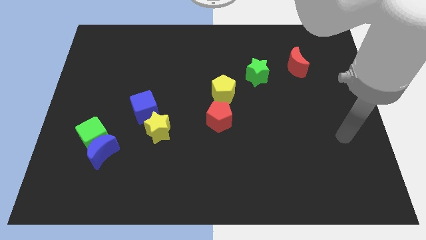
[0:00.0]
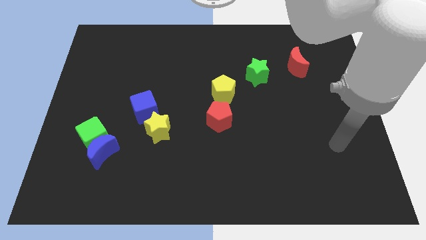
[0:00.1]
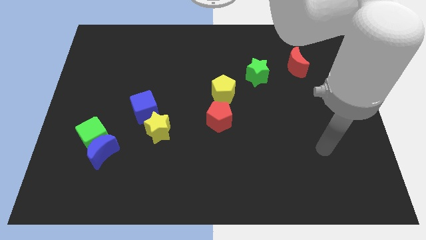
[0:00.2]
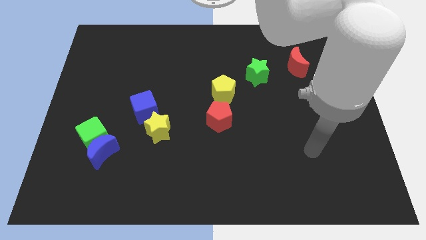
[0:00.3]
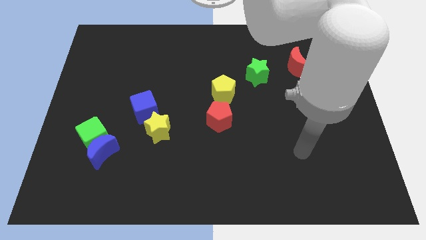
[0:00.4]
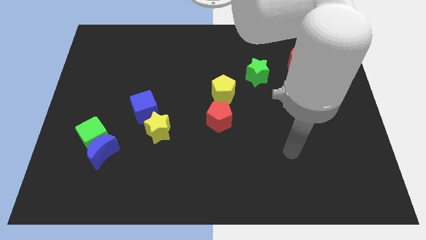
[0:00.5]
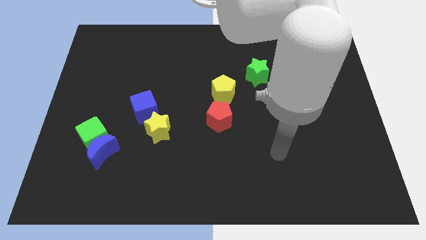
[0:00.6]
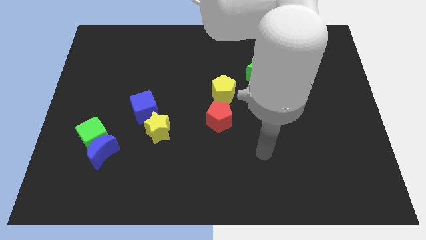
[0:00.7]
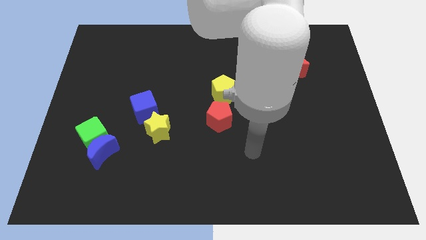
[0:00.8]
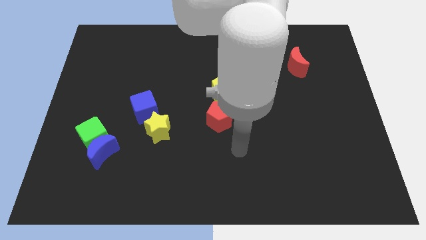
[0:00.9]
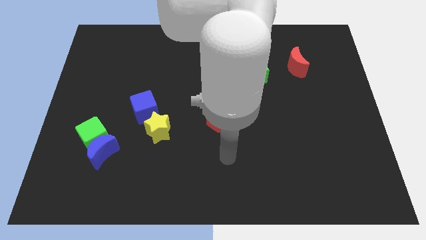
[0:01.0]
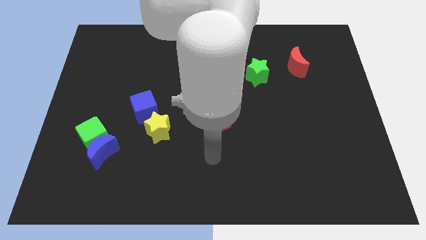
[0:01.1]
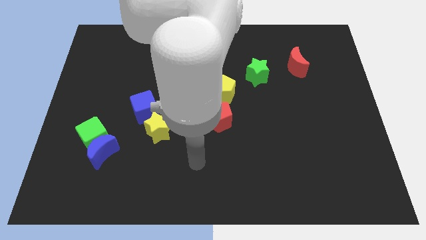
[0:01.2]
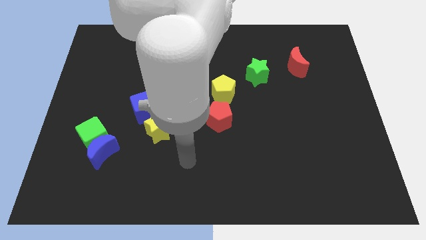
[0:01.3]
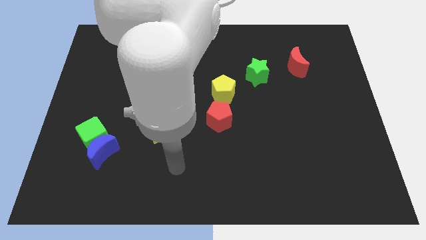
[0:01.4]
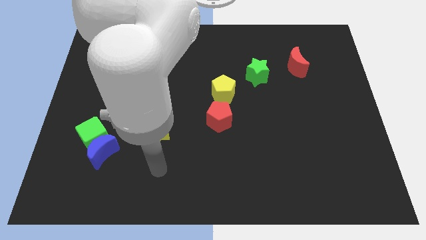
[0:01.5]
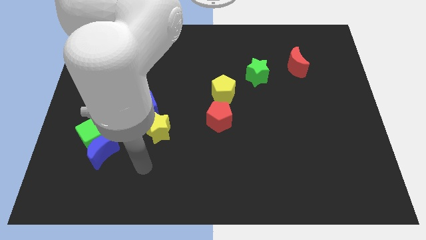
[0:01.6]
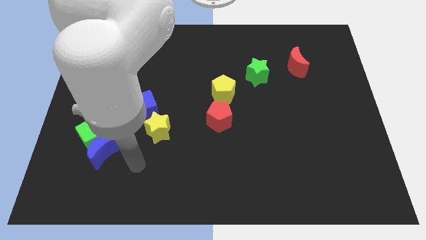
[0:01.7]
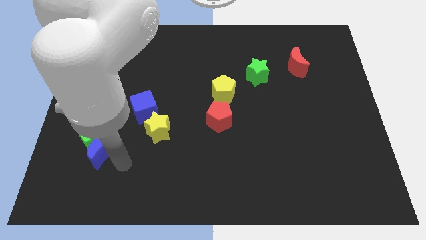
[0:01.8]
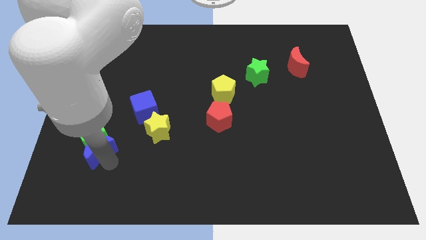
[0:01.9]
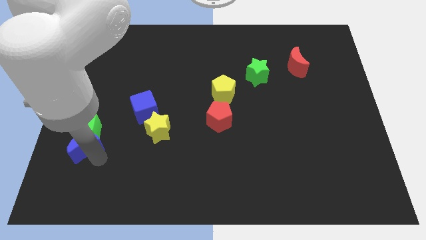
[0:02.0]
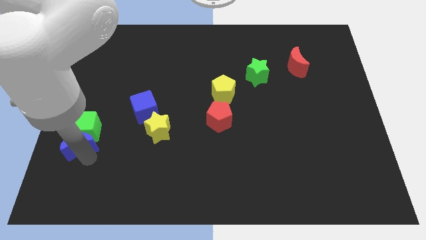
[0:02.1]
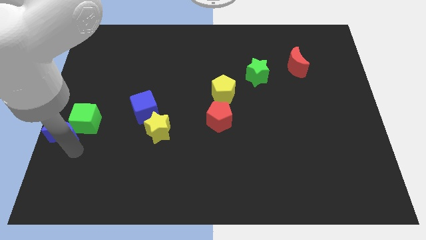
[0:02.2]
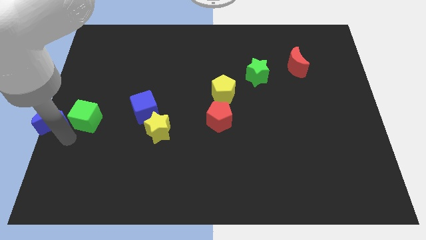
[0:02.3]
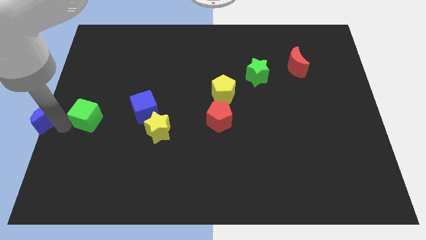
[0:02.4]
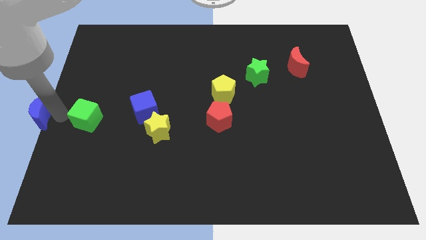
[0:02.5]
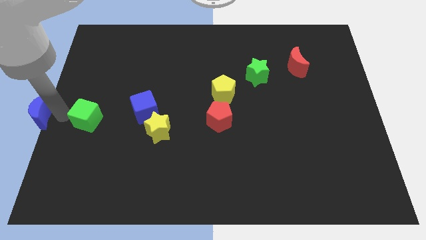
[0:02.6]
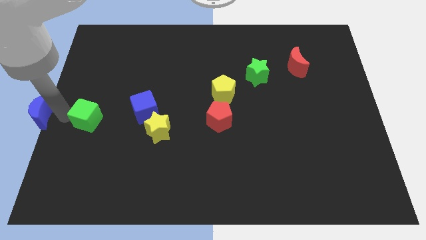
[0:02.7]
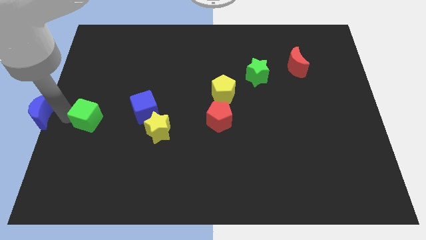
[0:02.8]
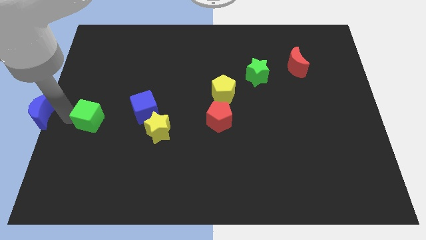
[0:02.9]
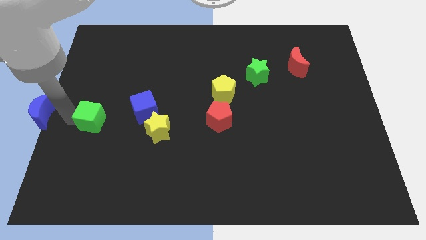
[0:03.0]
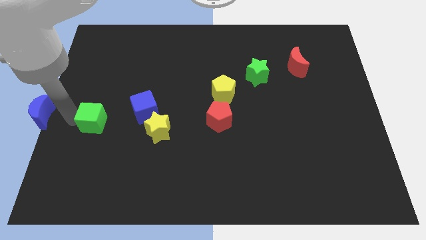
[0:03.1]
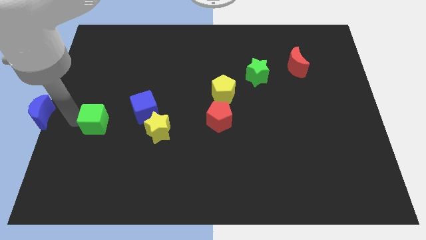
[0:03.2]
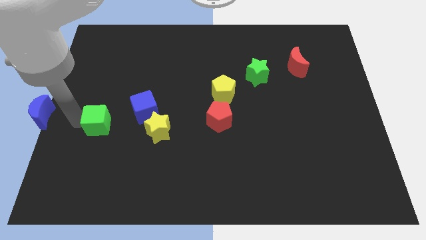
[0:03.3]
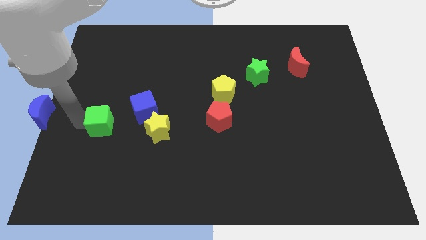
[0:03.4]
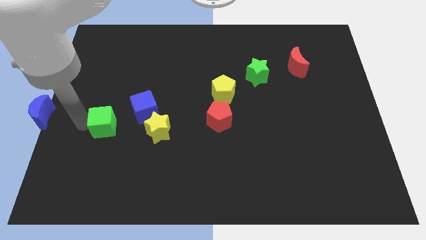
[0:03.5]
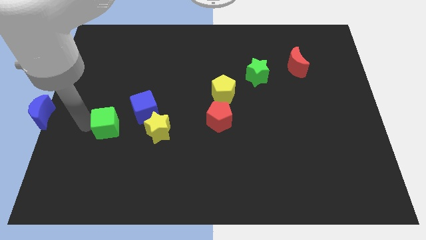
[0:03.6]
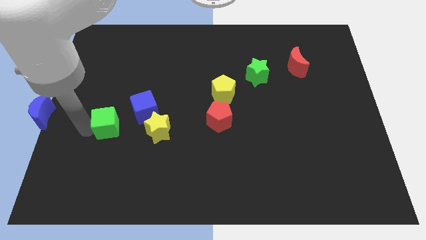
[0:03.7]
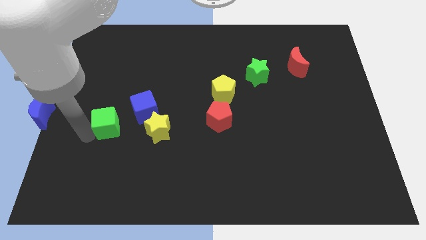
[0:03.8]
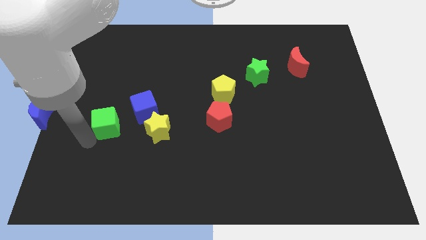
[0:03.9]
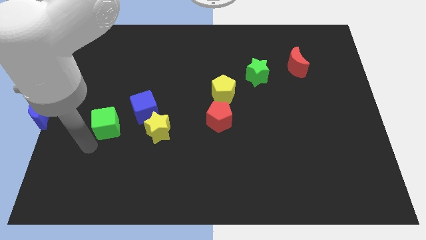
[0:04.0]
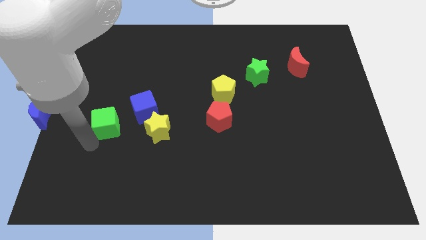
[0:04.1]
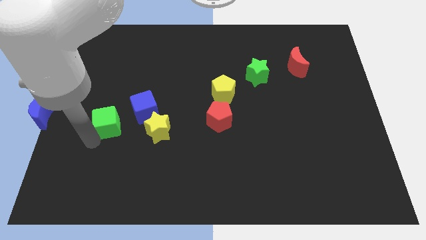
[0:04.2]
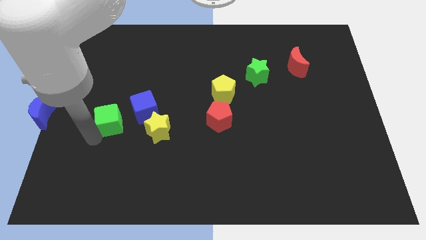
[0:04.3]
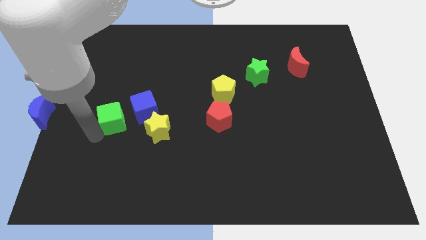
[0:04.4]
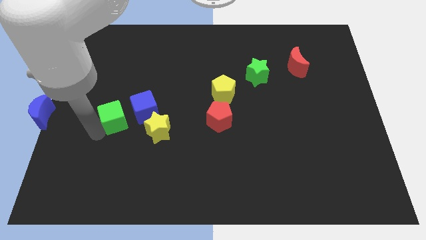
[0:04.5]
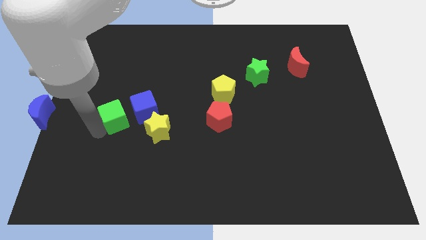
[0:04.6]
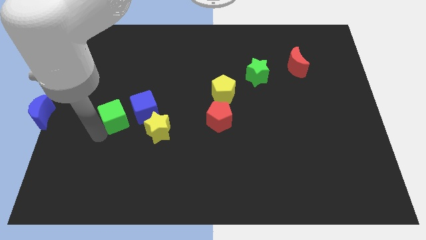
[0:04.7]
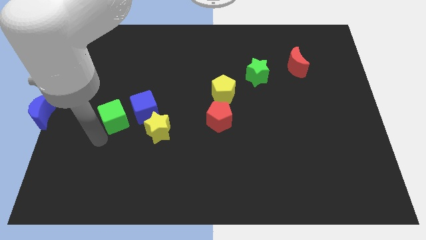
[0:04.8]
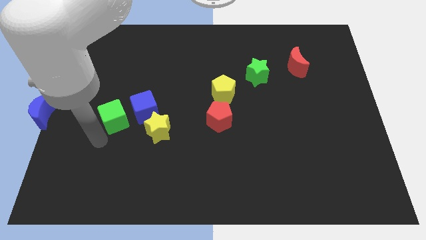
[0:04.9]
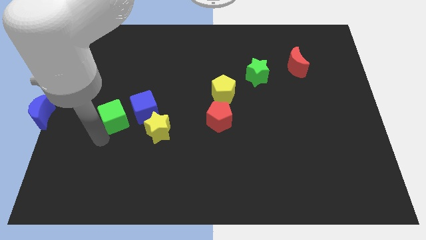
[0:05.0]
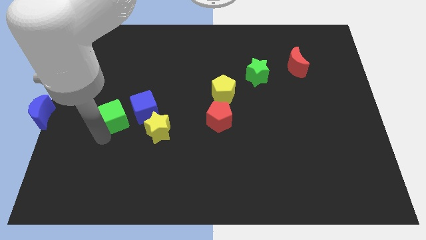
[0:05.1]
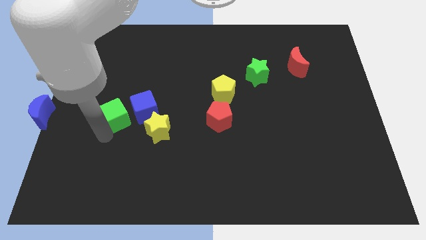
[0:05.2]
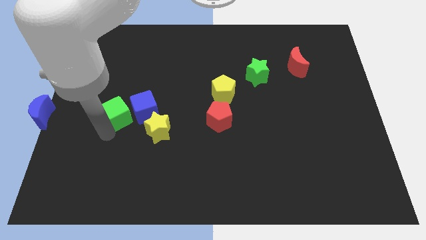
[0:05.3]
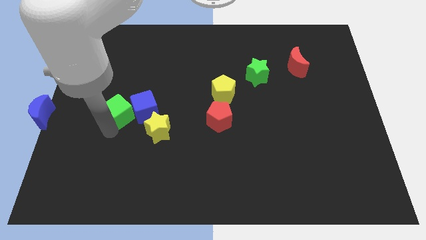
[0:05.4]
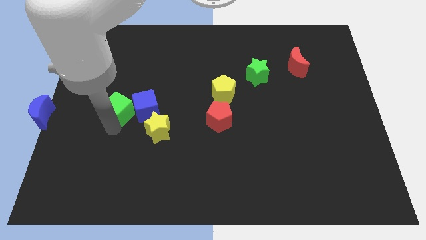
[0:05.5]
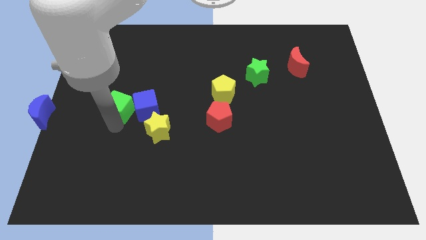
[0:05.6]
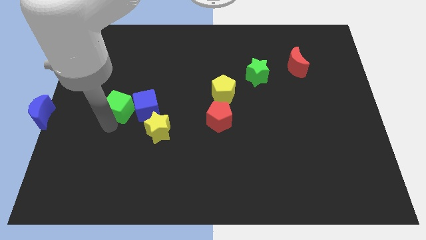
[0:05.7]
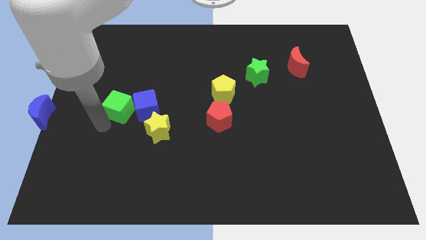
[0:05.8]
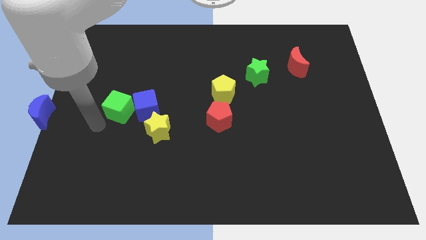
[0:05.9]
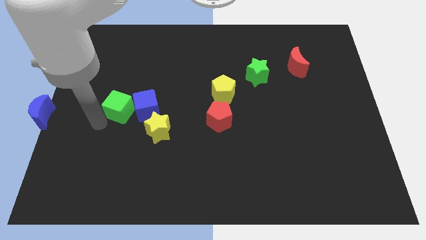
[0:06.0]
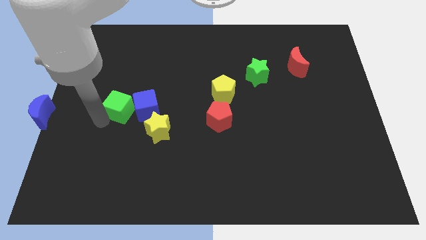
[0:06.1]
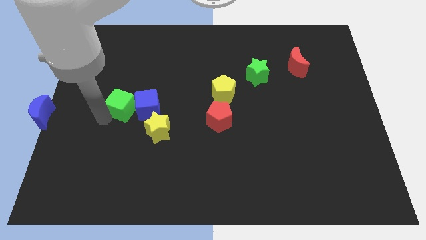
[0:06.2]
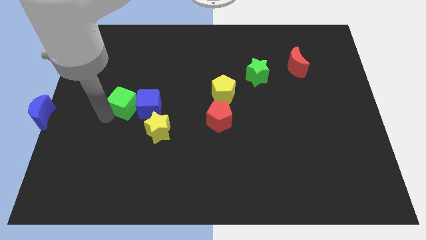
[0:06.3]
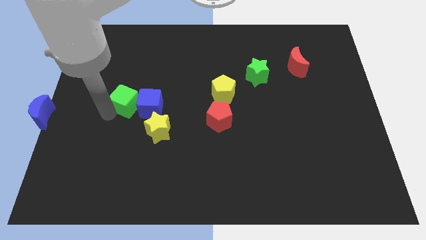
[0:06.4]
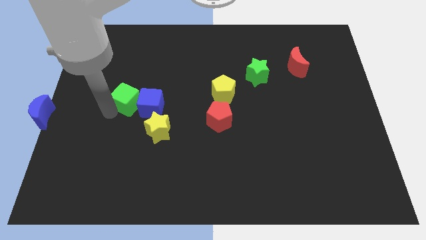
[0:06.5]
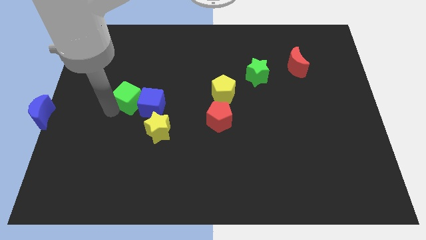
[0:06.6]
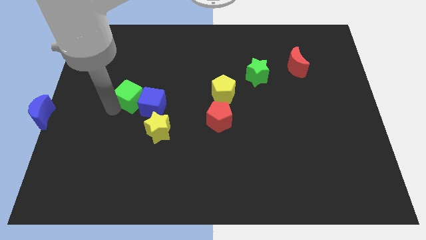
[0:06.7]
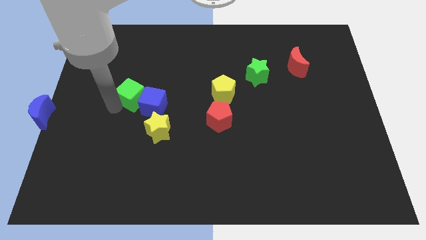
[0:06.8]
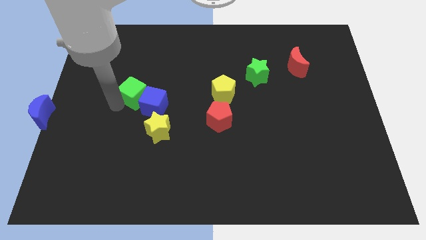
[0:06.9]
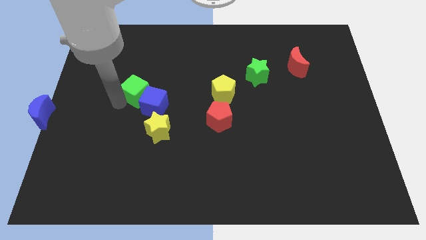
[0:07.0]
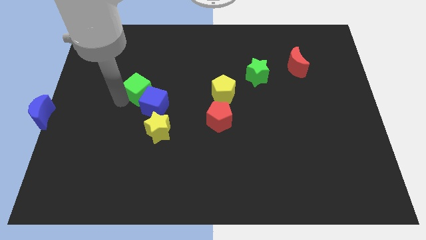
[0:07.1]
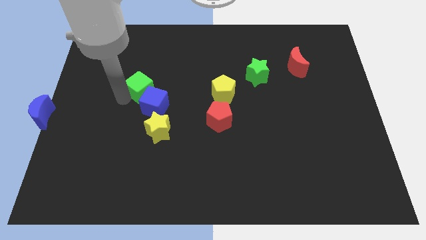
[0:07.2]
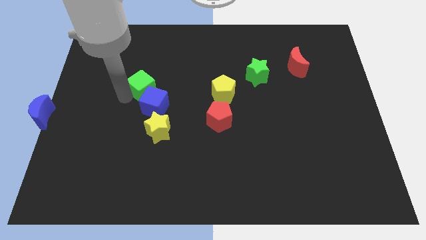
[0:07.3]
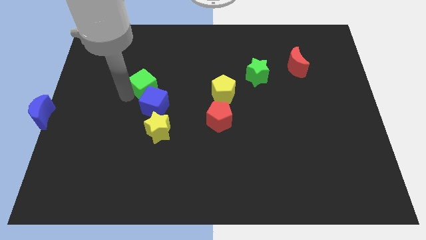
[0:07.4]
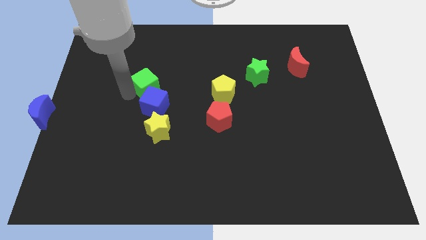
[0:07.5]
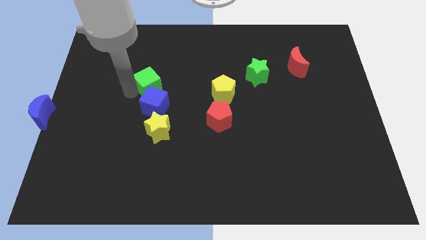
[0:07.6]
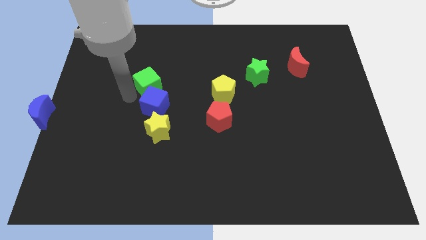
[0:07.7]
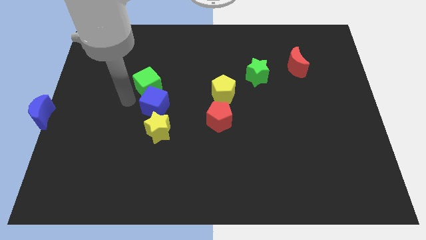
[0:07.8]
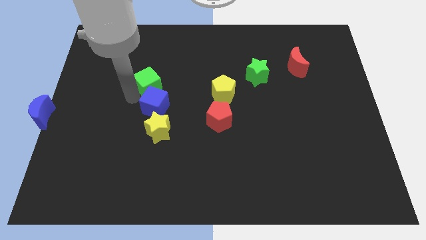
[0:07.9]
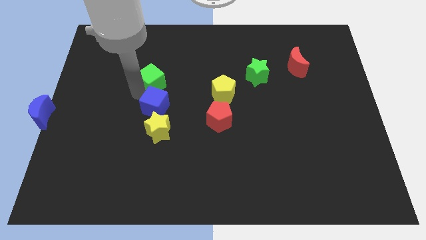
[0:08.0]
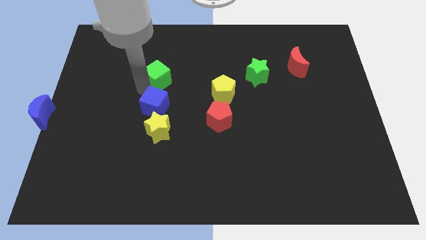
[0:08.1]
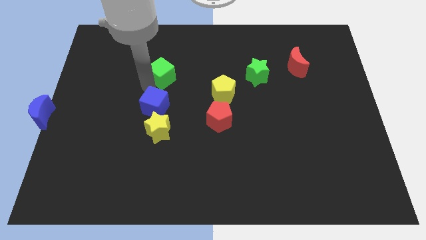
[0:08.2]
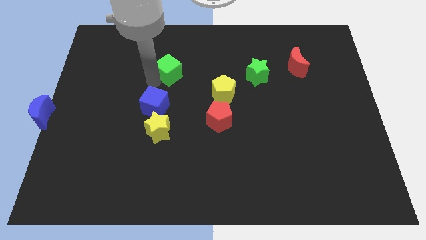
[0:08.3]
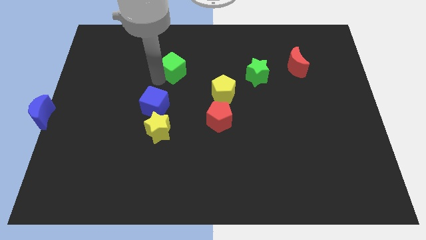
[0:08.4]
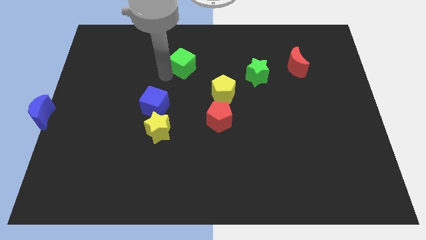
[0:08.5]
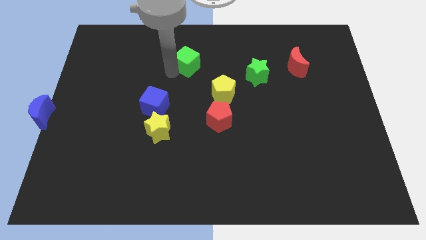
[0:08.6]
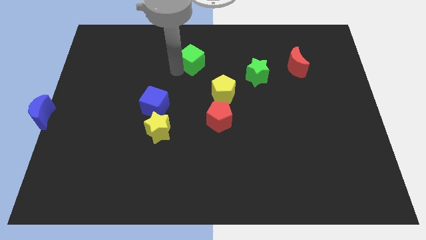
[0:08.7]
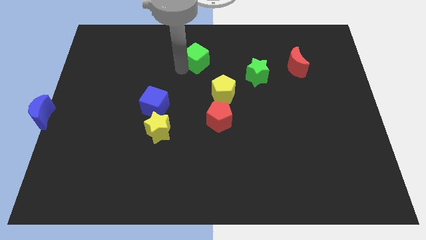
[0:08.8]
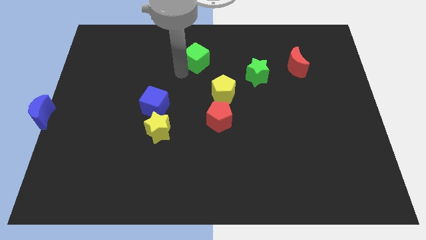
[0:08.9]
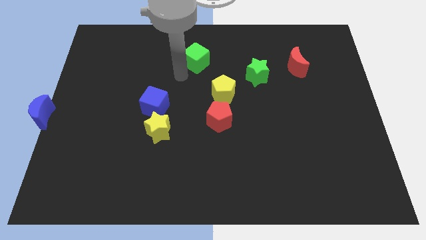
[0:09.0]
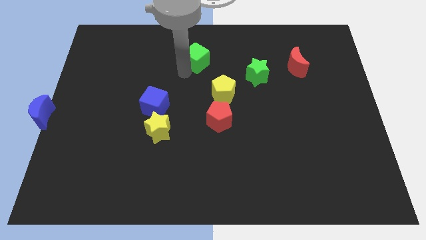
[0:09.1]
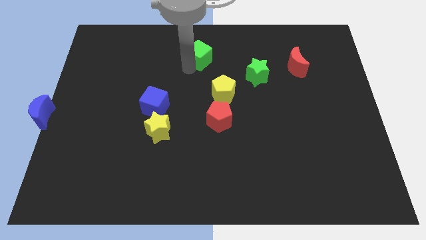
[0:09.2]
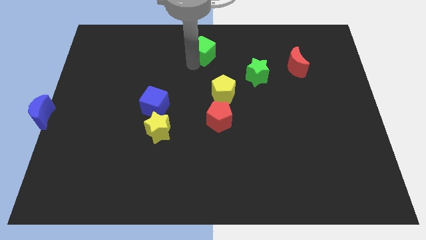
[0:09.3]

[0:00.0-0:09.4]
put the green cube to the top side
